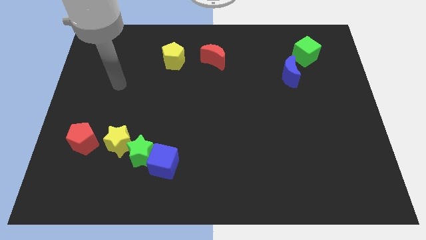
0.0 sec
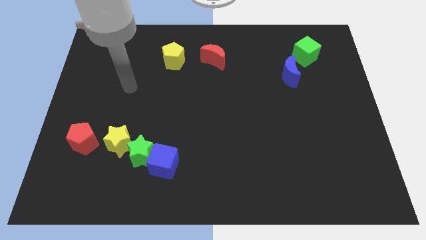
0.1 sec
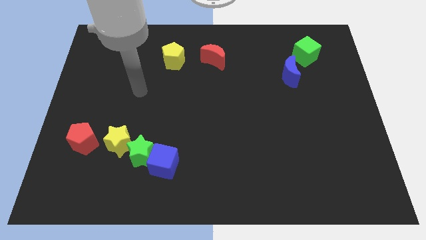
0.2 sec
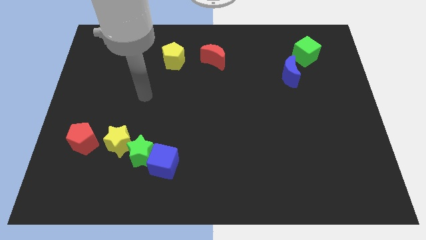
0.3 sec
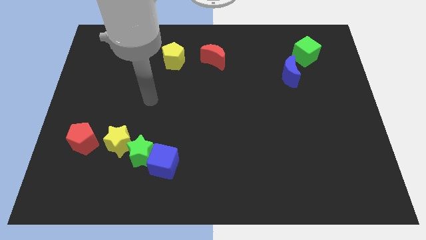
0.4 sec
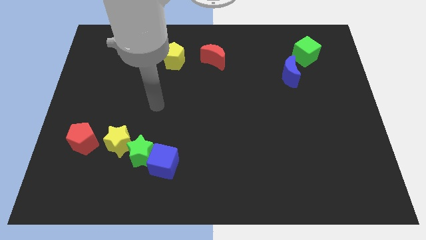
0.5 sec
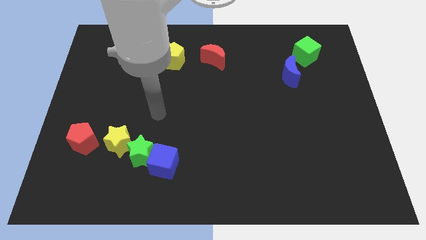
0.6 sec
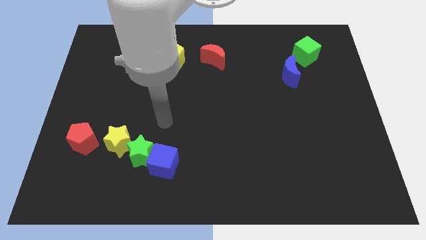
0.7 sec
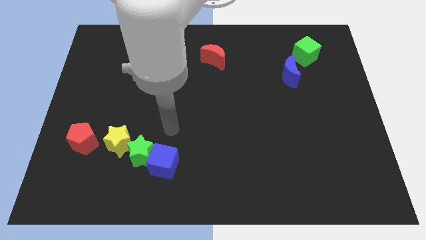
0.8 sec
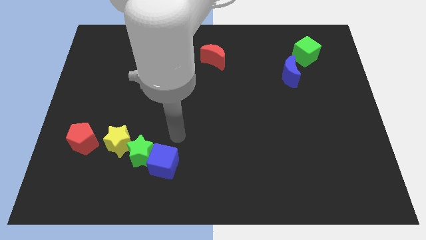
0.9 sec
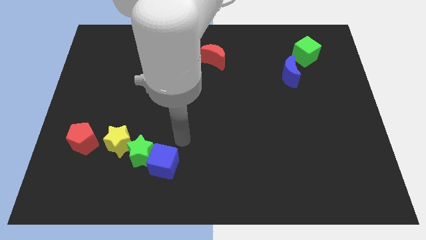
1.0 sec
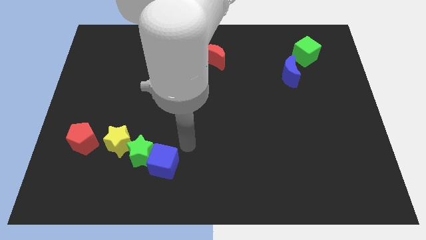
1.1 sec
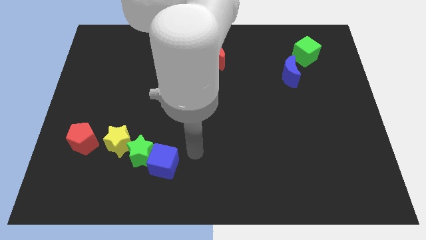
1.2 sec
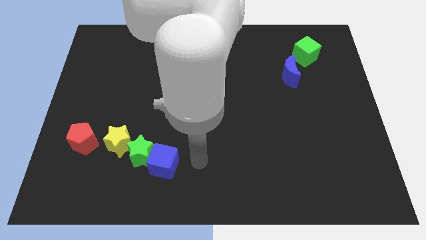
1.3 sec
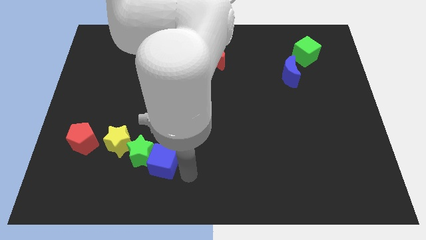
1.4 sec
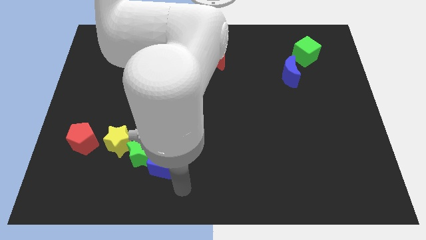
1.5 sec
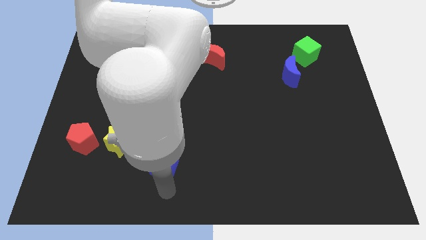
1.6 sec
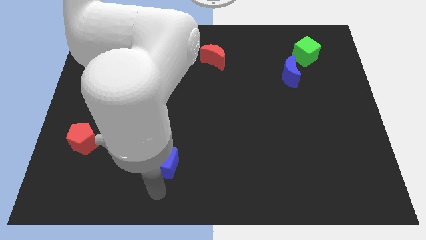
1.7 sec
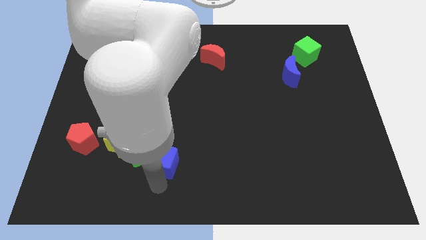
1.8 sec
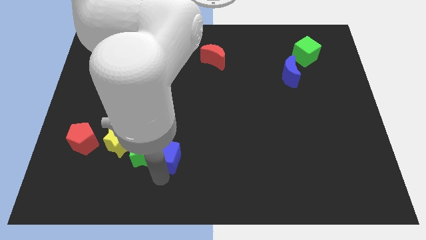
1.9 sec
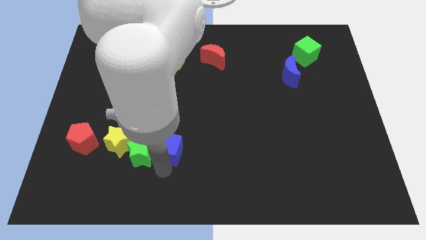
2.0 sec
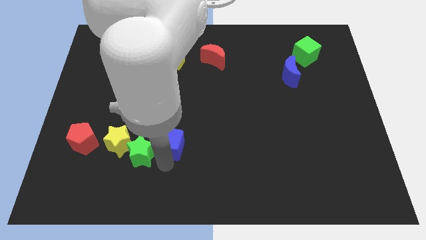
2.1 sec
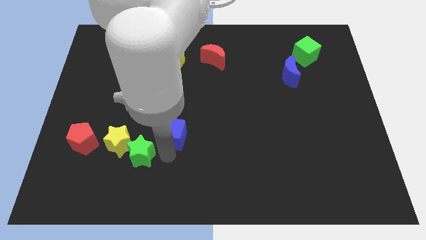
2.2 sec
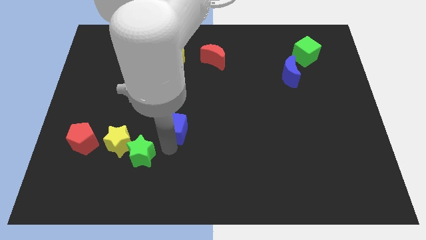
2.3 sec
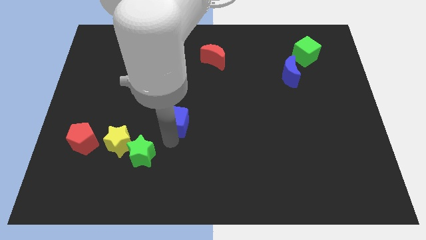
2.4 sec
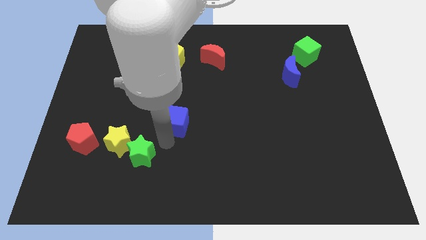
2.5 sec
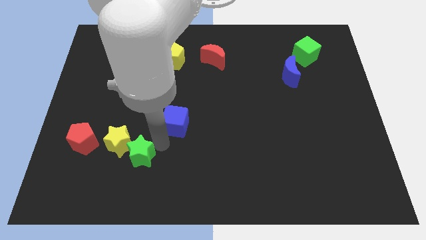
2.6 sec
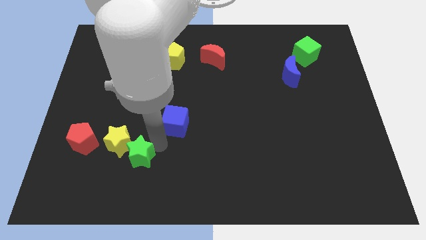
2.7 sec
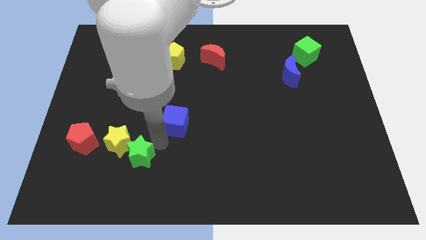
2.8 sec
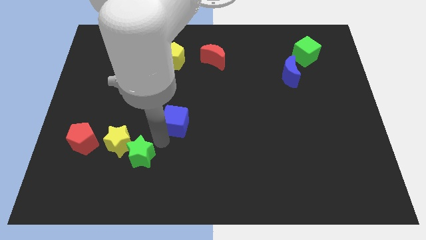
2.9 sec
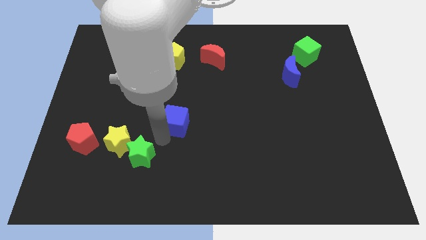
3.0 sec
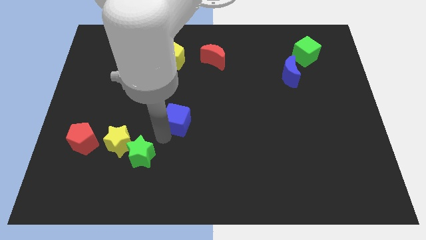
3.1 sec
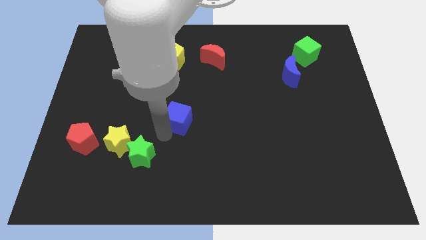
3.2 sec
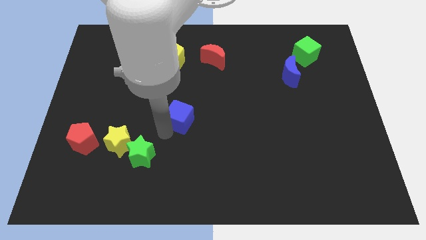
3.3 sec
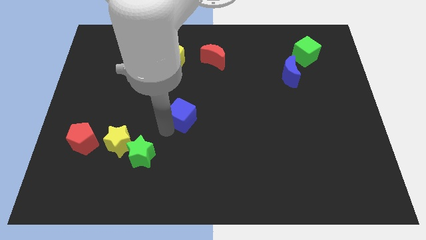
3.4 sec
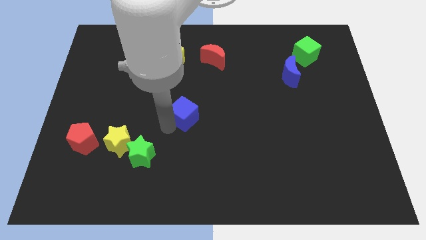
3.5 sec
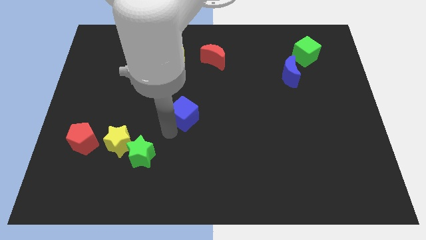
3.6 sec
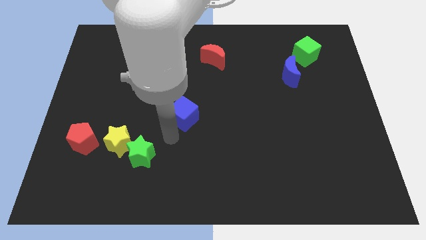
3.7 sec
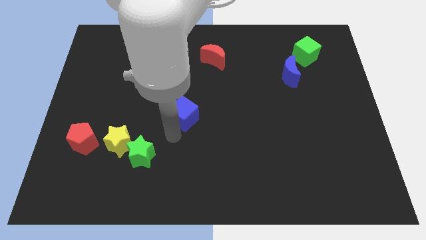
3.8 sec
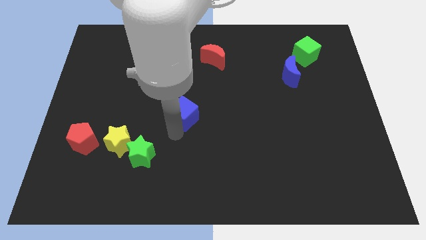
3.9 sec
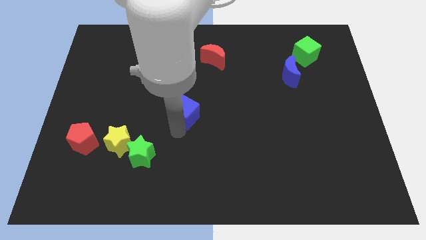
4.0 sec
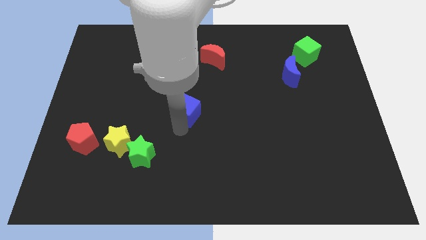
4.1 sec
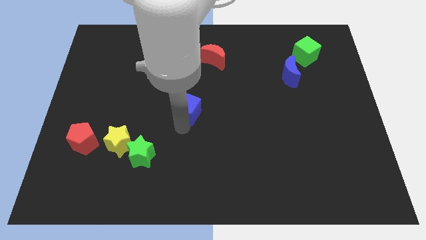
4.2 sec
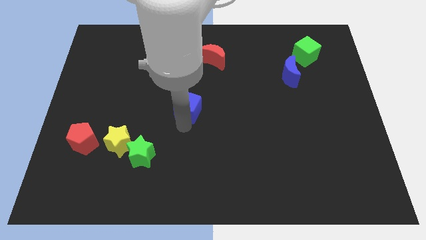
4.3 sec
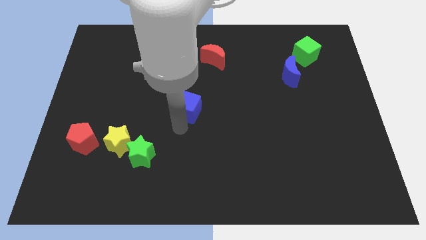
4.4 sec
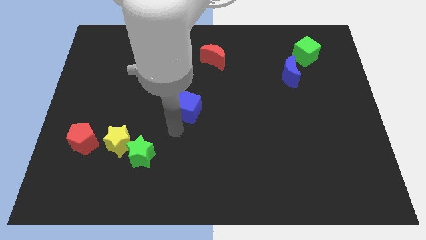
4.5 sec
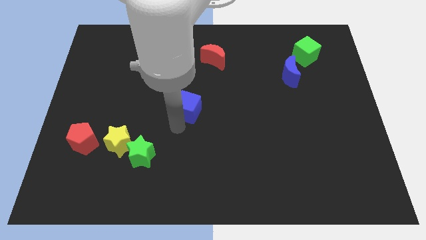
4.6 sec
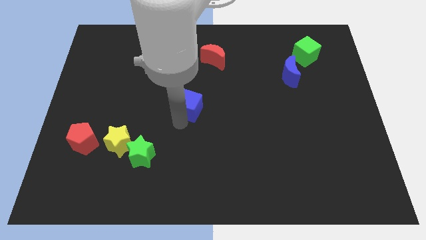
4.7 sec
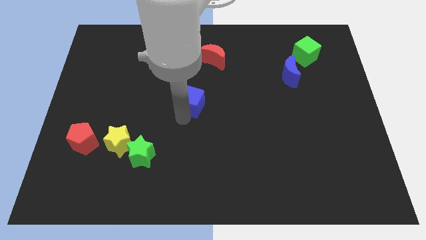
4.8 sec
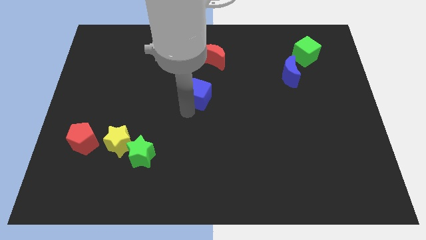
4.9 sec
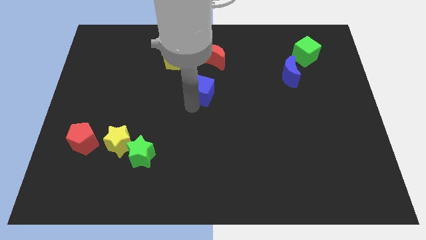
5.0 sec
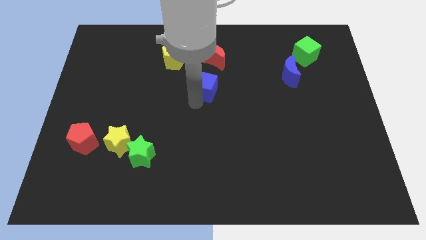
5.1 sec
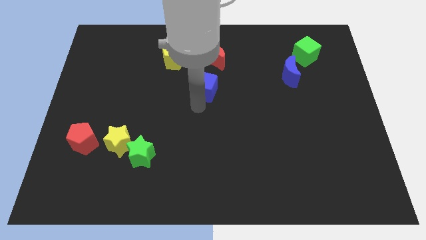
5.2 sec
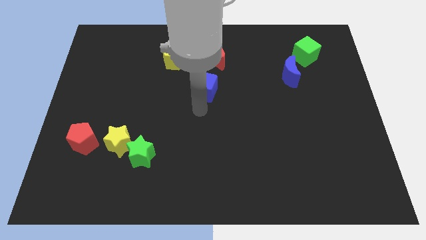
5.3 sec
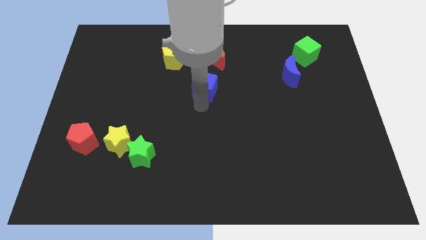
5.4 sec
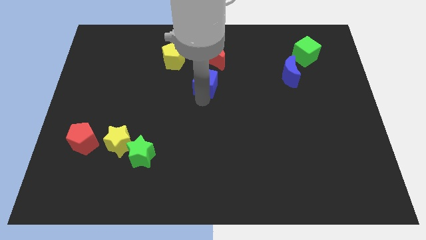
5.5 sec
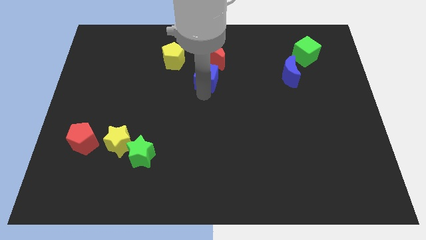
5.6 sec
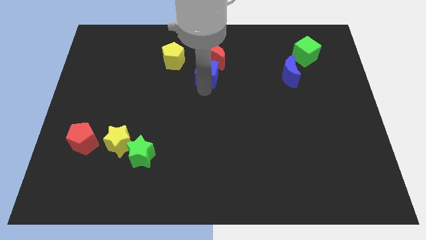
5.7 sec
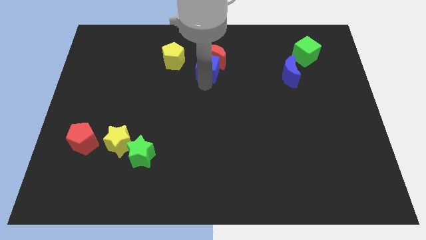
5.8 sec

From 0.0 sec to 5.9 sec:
push the blue cube close to the red moon
